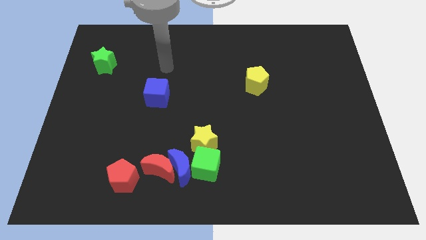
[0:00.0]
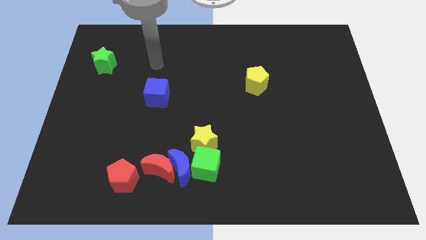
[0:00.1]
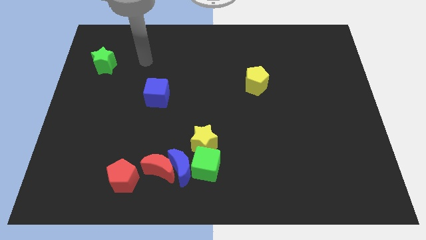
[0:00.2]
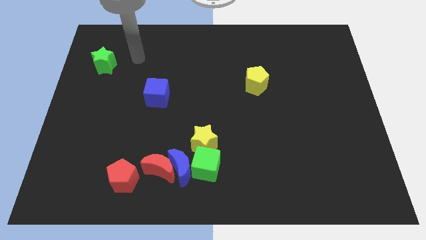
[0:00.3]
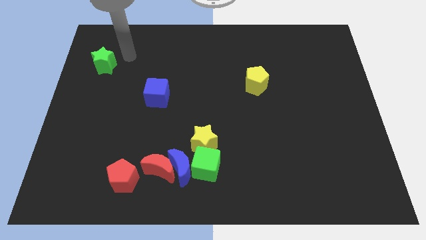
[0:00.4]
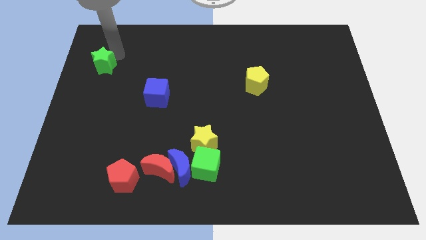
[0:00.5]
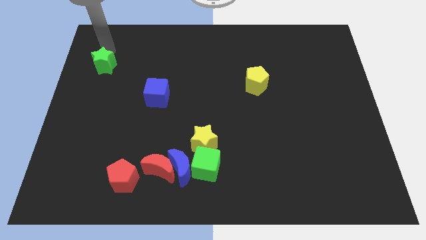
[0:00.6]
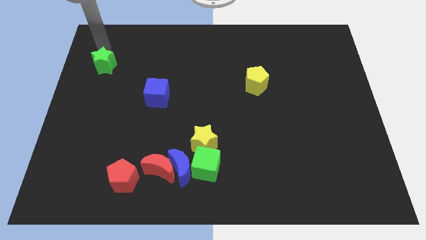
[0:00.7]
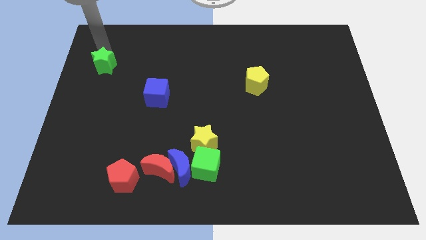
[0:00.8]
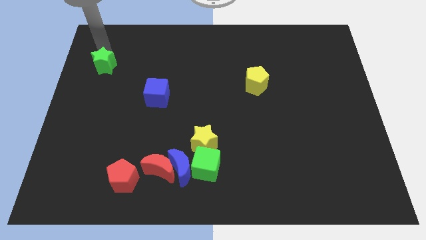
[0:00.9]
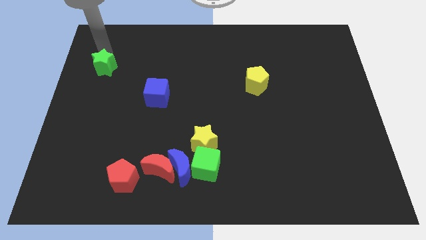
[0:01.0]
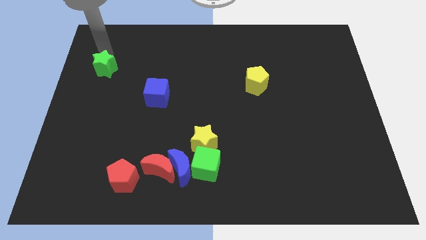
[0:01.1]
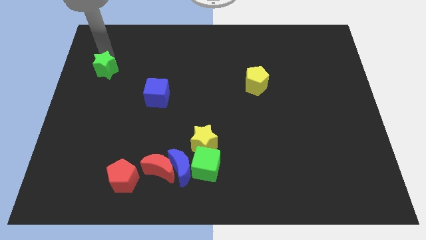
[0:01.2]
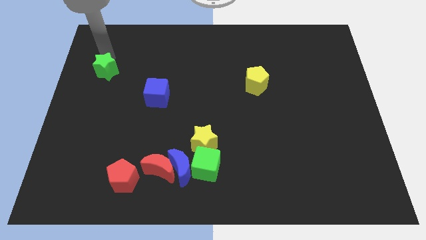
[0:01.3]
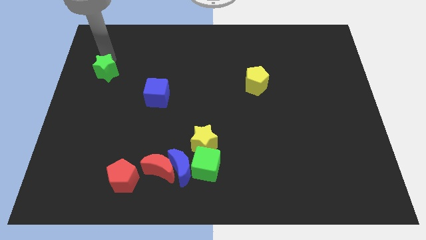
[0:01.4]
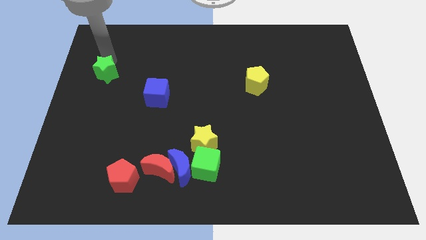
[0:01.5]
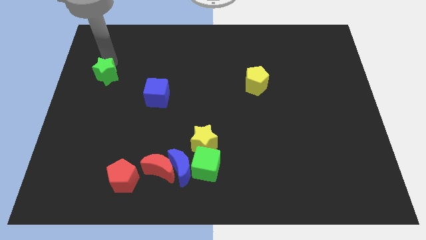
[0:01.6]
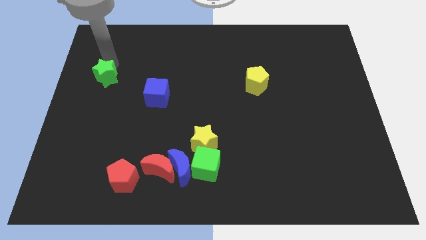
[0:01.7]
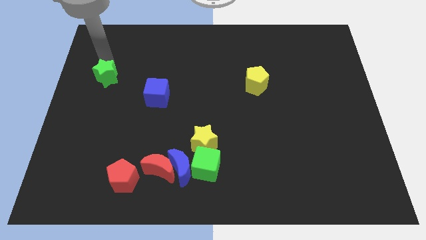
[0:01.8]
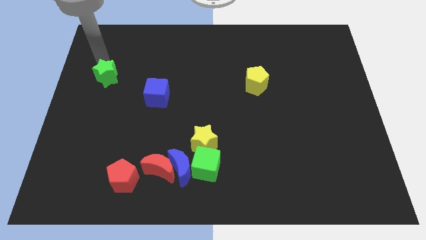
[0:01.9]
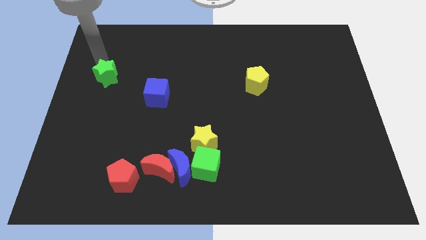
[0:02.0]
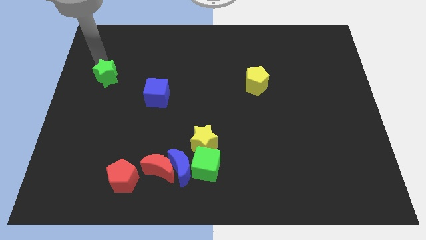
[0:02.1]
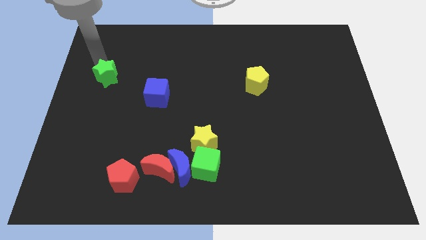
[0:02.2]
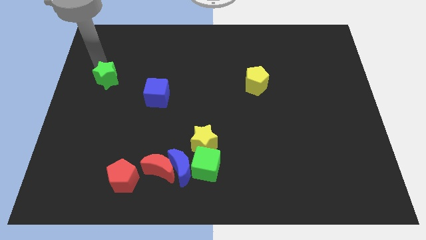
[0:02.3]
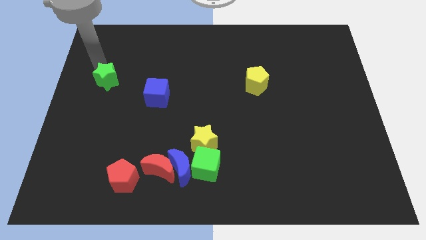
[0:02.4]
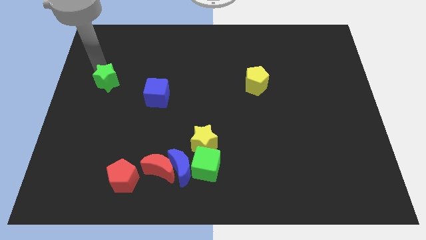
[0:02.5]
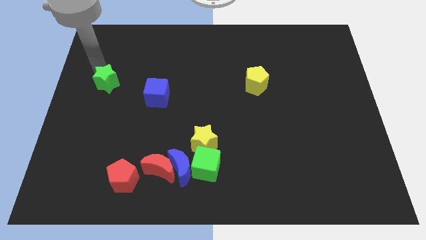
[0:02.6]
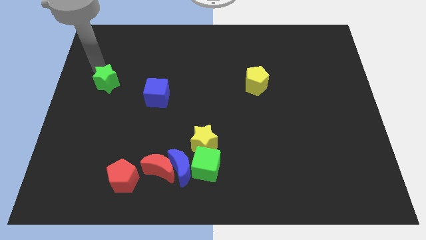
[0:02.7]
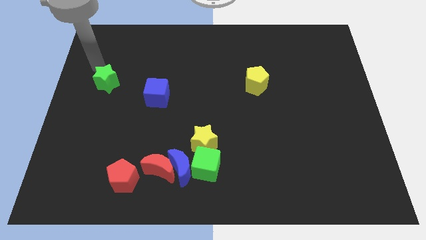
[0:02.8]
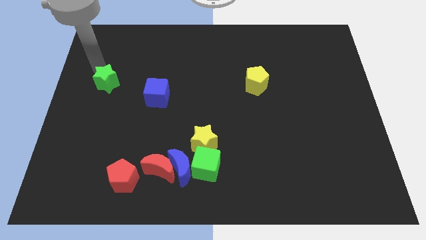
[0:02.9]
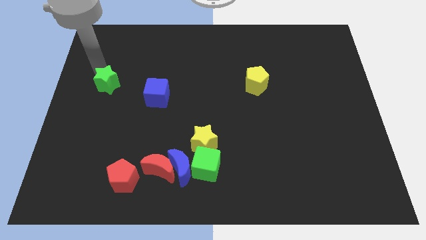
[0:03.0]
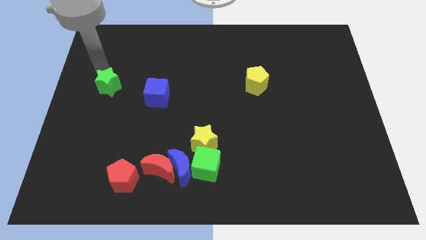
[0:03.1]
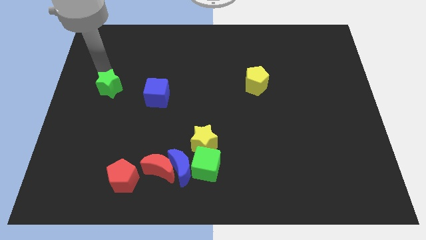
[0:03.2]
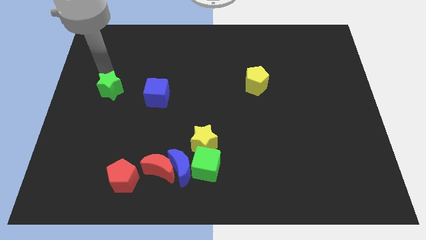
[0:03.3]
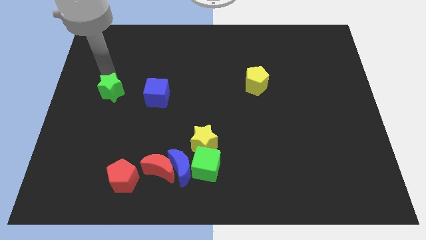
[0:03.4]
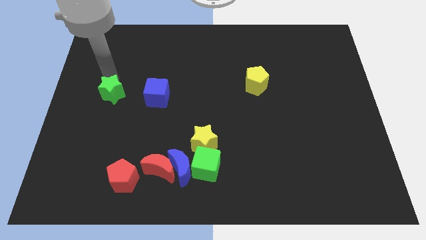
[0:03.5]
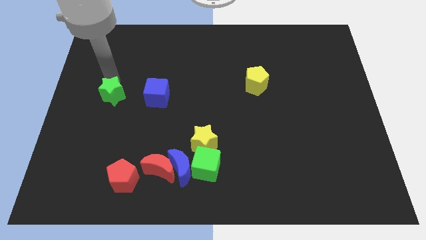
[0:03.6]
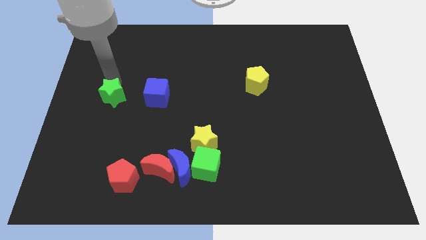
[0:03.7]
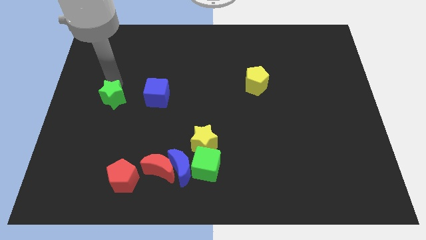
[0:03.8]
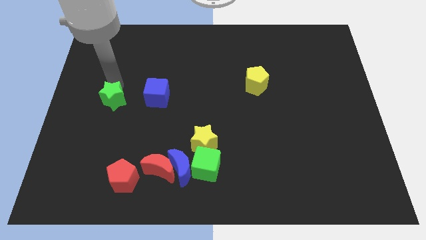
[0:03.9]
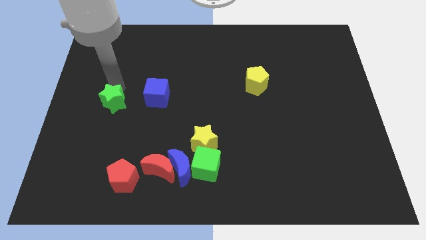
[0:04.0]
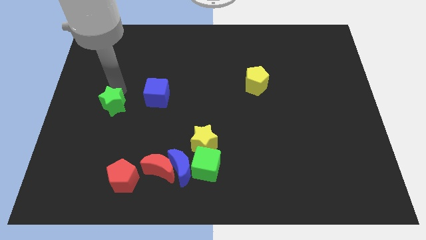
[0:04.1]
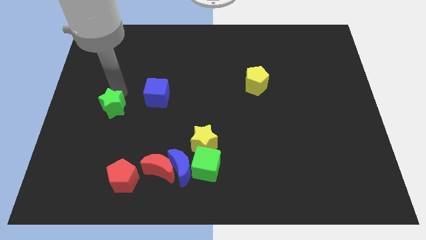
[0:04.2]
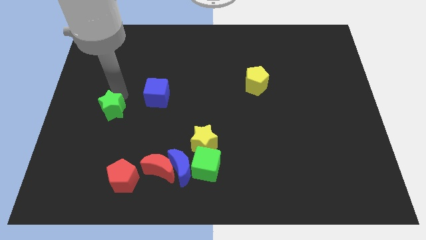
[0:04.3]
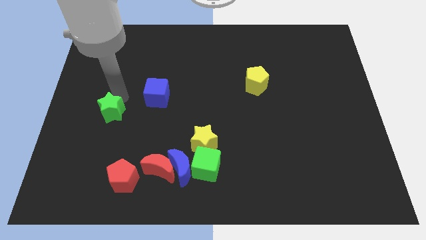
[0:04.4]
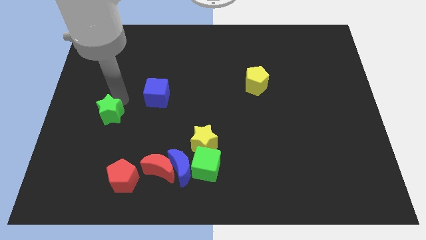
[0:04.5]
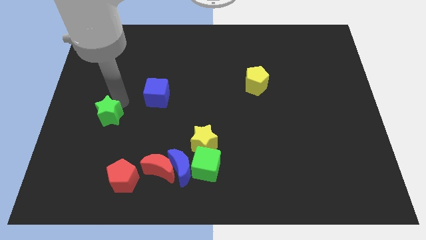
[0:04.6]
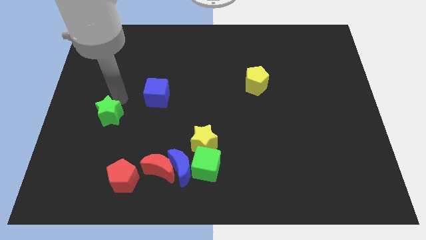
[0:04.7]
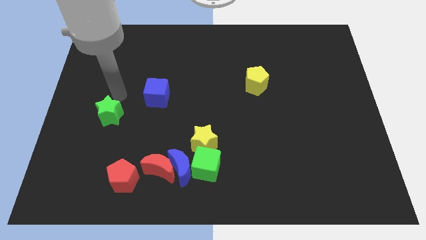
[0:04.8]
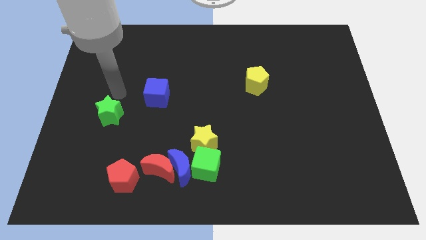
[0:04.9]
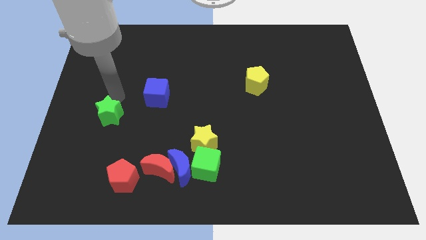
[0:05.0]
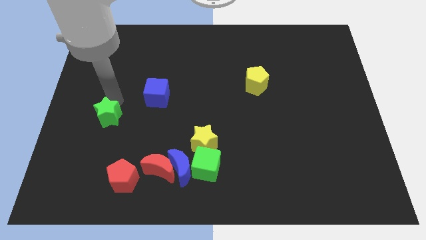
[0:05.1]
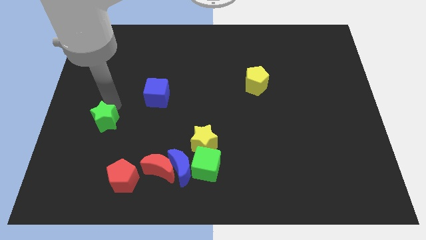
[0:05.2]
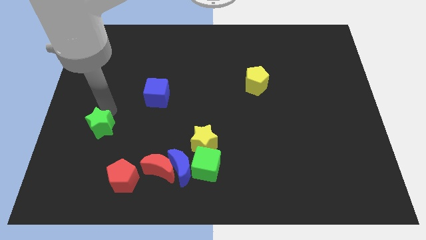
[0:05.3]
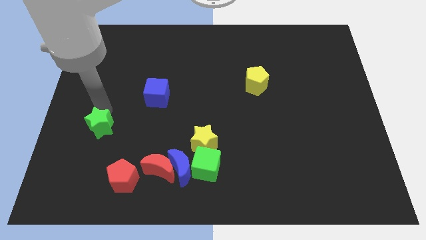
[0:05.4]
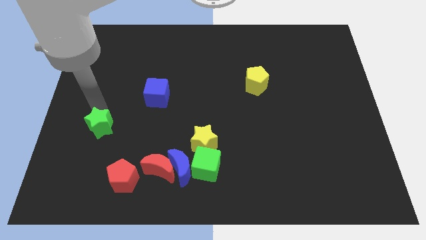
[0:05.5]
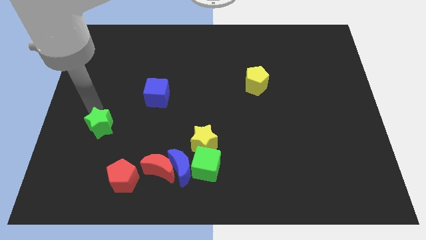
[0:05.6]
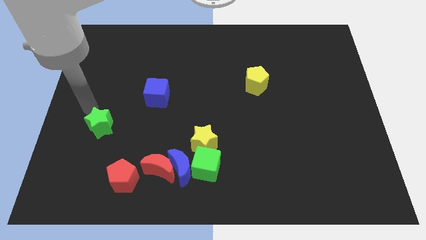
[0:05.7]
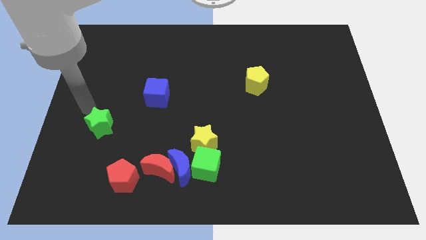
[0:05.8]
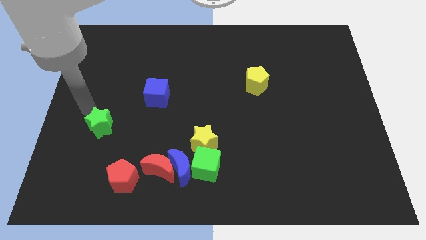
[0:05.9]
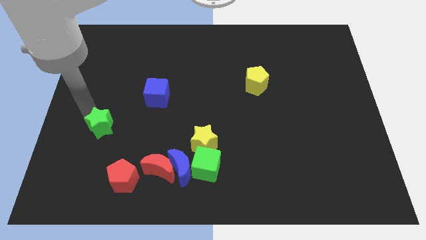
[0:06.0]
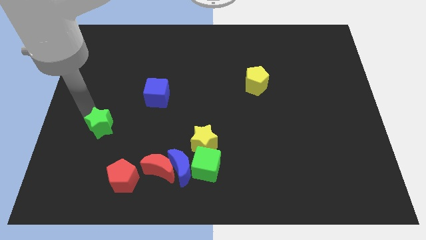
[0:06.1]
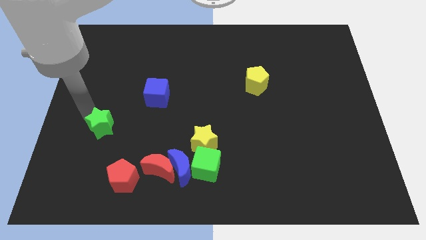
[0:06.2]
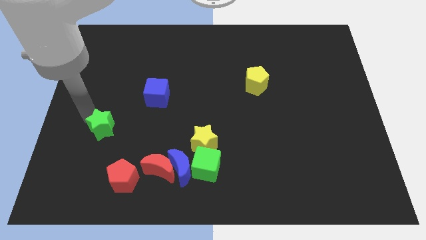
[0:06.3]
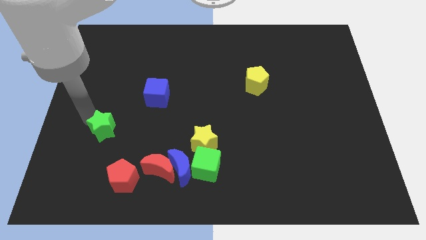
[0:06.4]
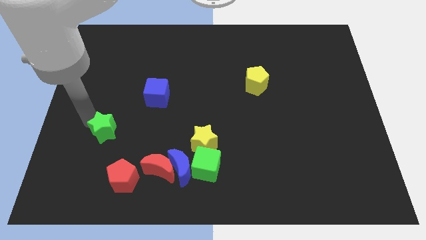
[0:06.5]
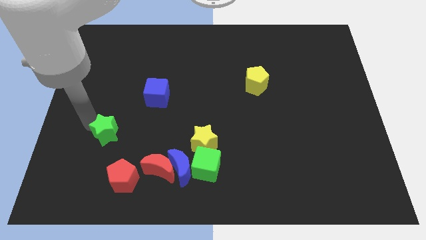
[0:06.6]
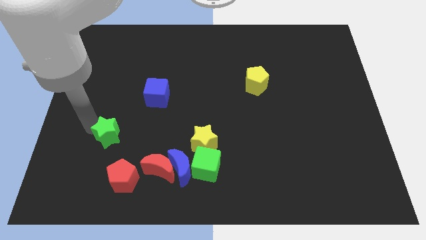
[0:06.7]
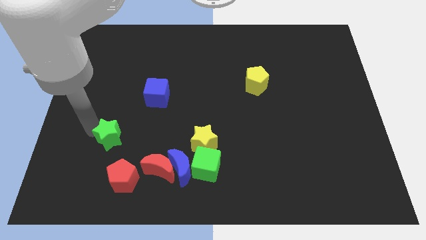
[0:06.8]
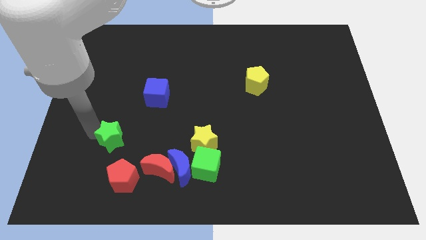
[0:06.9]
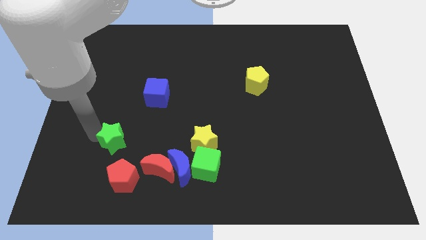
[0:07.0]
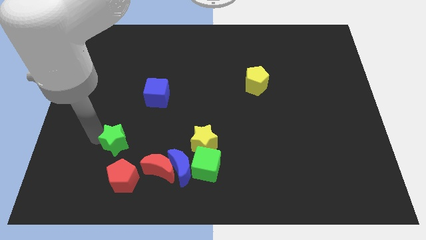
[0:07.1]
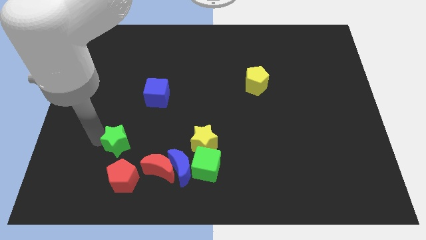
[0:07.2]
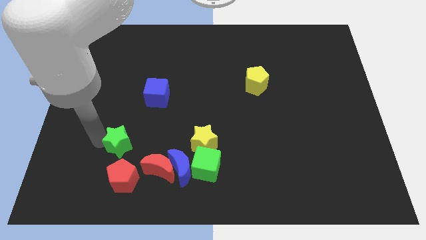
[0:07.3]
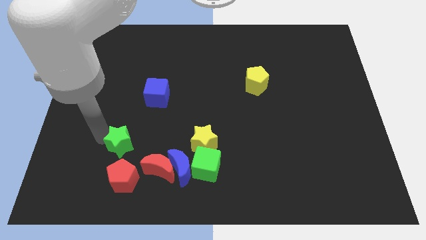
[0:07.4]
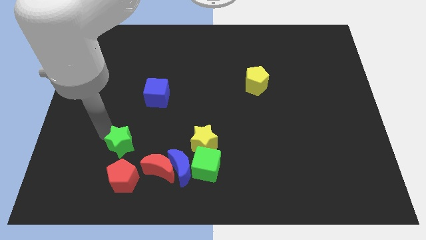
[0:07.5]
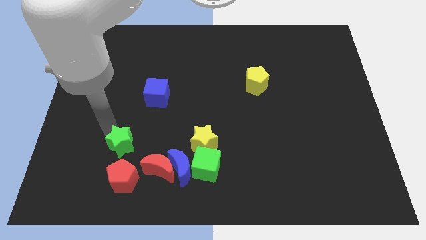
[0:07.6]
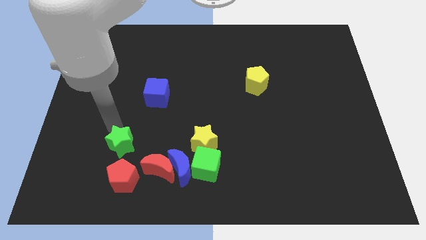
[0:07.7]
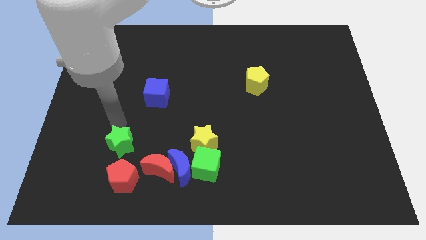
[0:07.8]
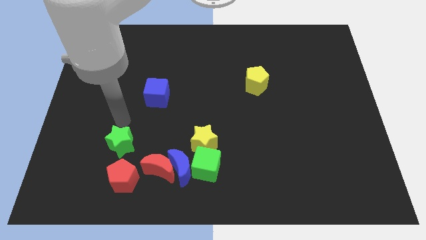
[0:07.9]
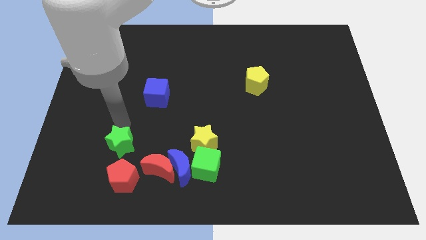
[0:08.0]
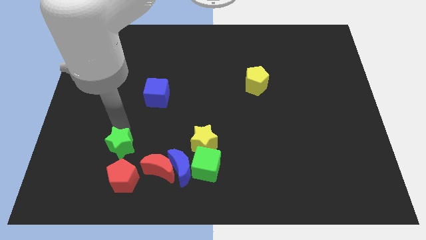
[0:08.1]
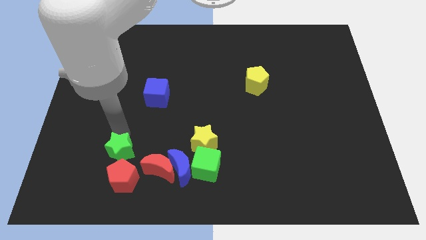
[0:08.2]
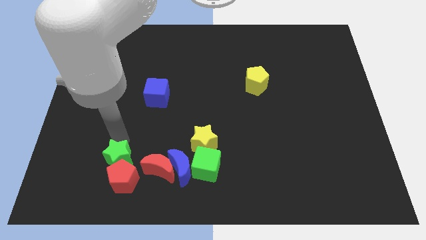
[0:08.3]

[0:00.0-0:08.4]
move the green star close to the red pentagon
